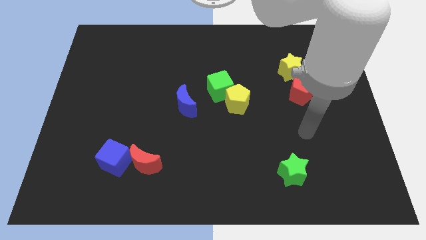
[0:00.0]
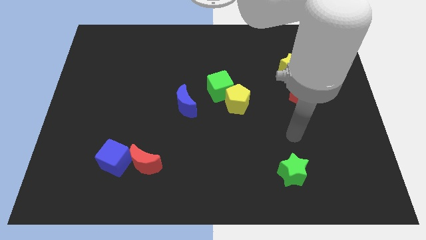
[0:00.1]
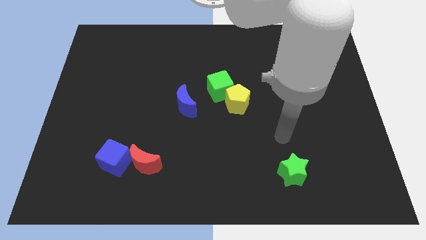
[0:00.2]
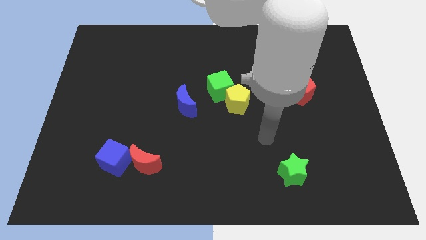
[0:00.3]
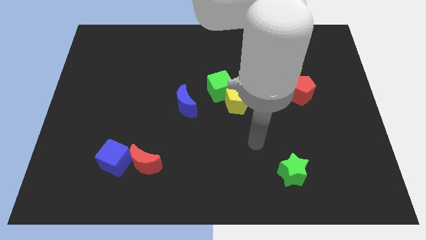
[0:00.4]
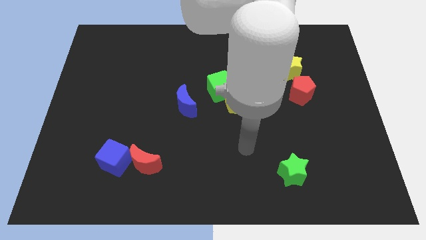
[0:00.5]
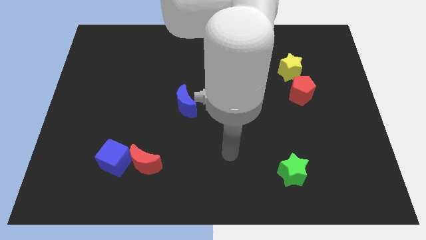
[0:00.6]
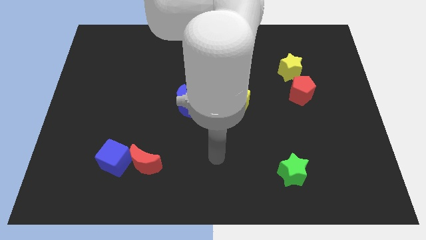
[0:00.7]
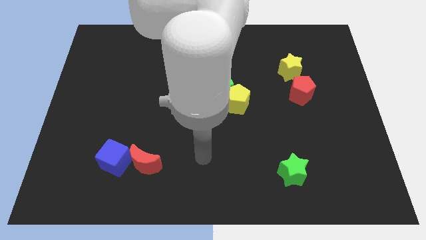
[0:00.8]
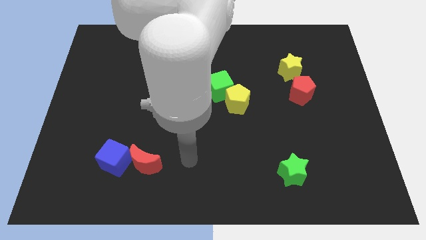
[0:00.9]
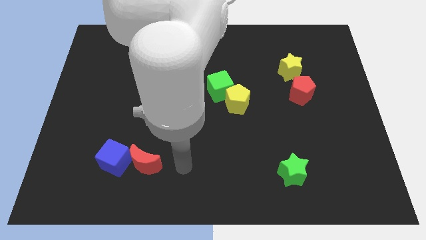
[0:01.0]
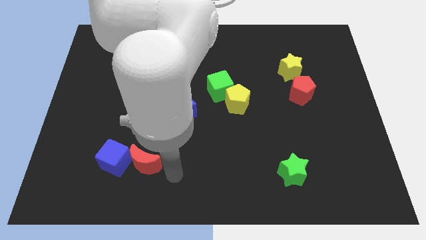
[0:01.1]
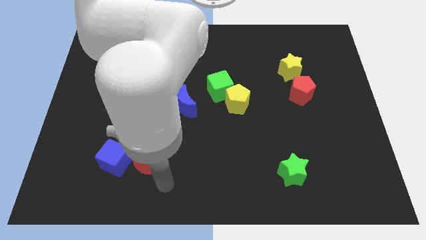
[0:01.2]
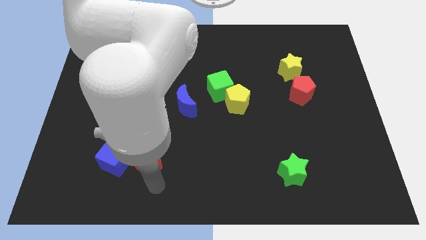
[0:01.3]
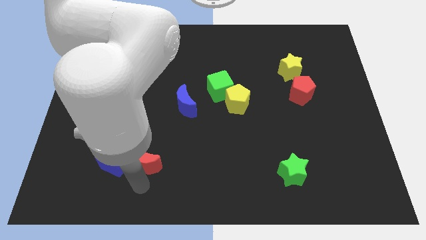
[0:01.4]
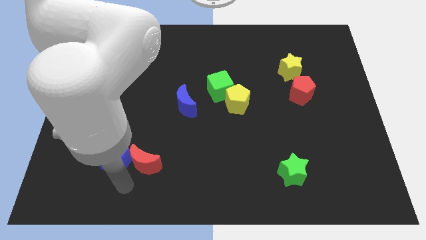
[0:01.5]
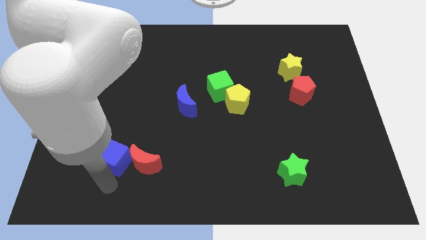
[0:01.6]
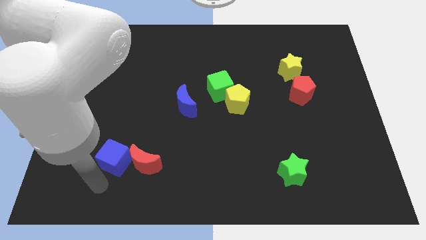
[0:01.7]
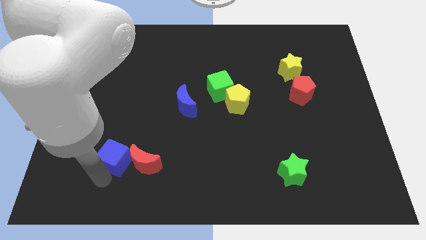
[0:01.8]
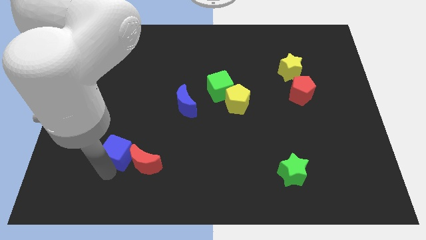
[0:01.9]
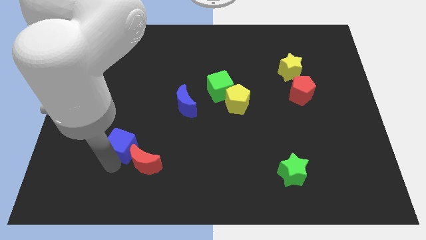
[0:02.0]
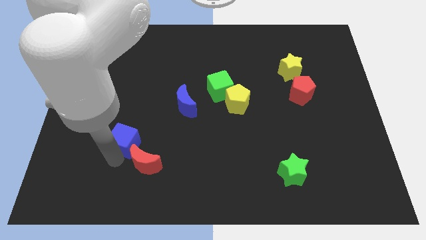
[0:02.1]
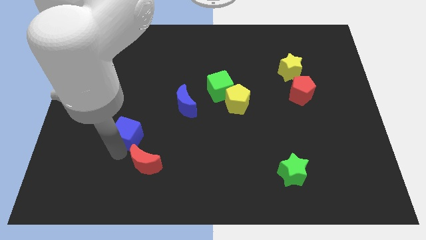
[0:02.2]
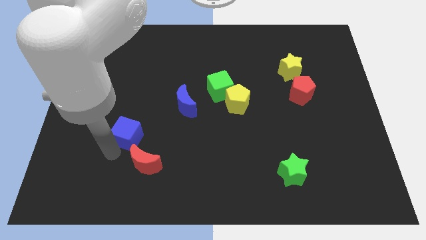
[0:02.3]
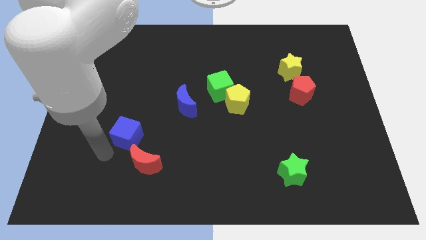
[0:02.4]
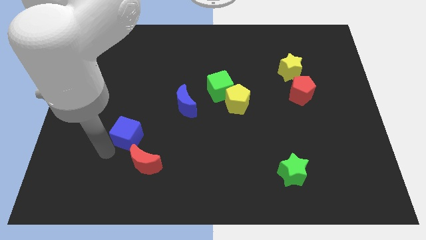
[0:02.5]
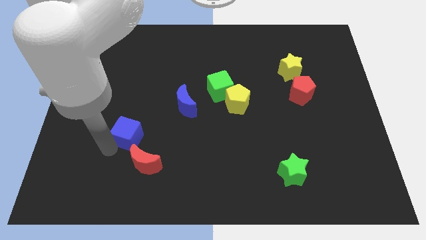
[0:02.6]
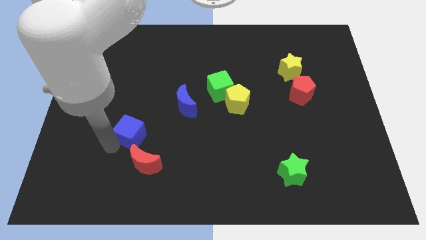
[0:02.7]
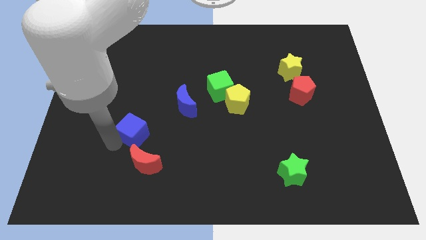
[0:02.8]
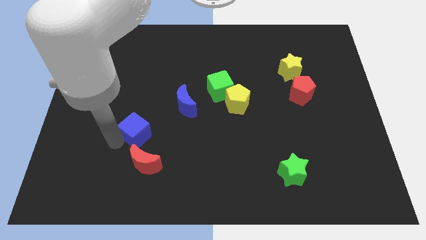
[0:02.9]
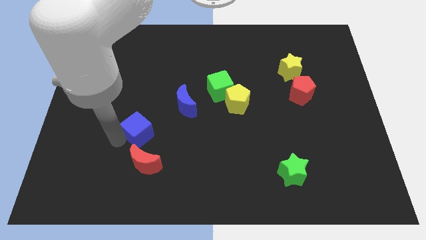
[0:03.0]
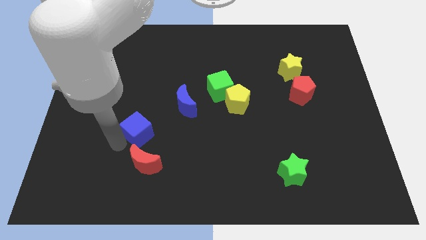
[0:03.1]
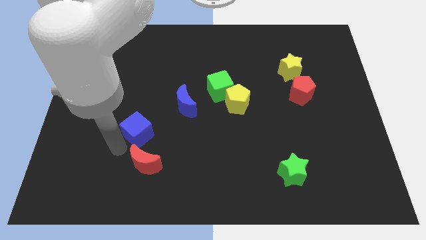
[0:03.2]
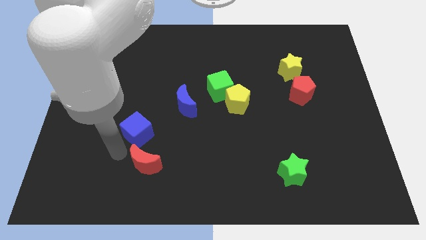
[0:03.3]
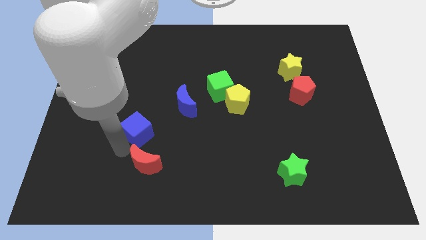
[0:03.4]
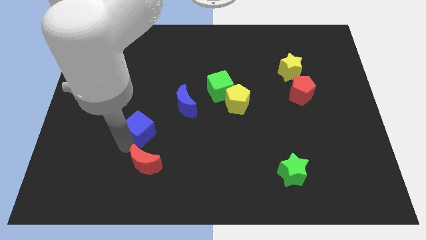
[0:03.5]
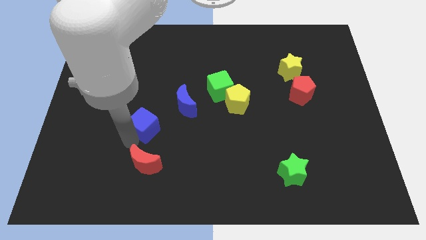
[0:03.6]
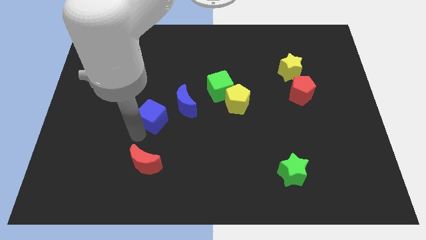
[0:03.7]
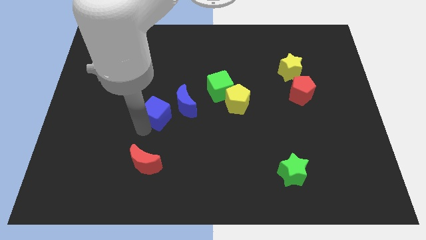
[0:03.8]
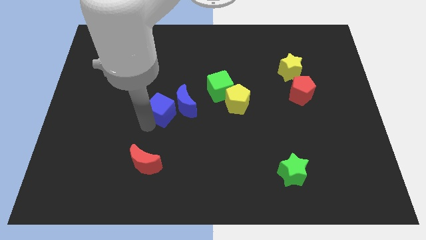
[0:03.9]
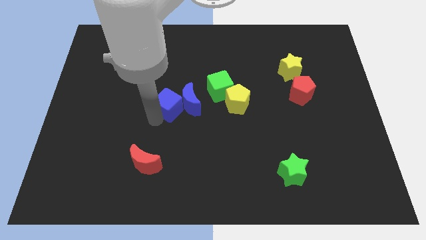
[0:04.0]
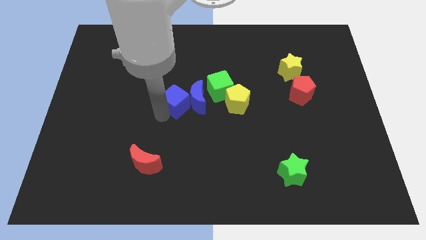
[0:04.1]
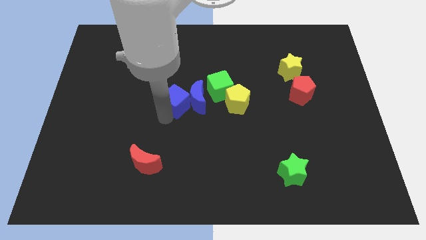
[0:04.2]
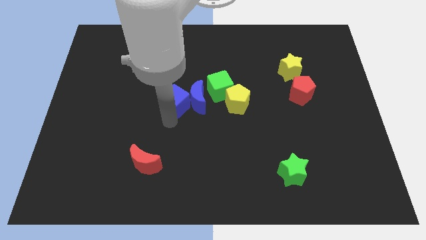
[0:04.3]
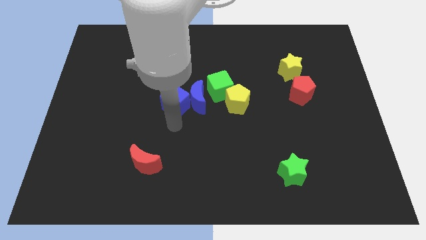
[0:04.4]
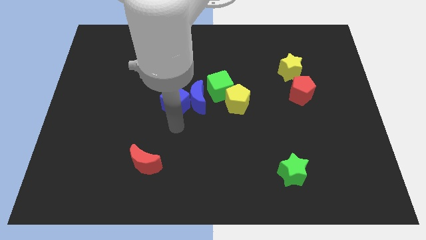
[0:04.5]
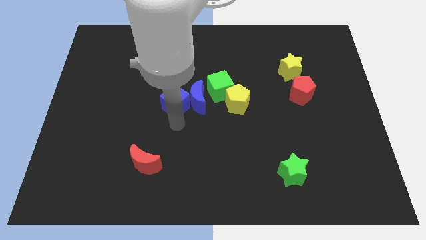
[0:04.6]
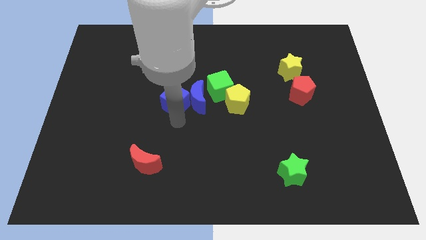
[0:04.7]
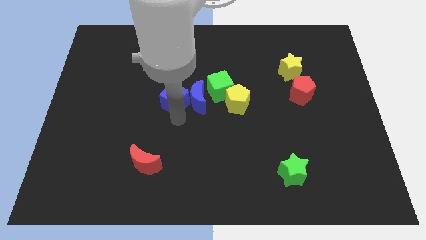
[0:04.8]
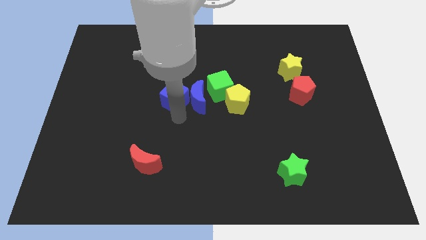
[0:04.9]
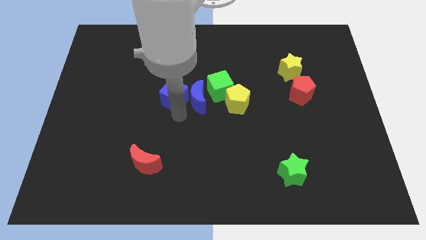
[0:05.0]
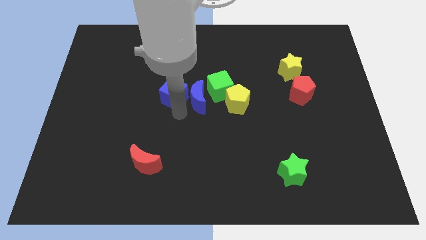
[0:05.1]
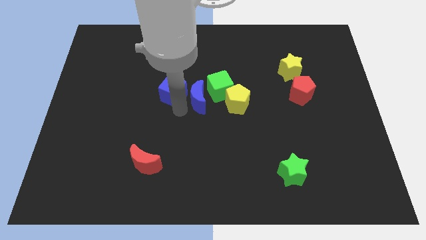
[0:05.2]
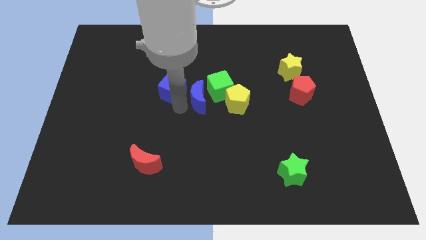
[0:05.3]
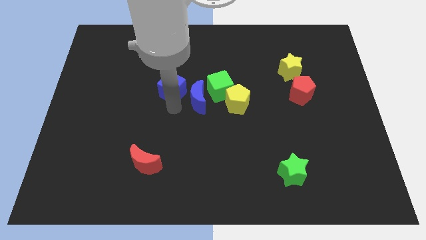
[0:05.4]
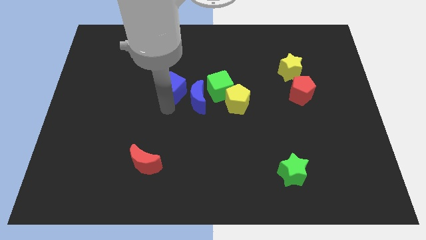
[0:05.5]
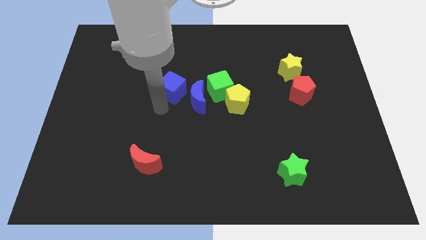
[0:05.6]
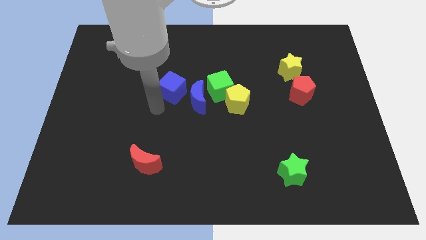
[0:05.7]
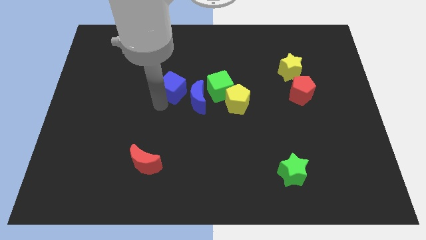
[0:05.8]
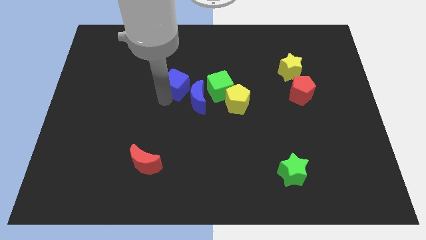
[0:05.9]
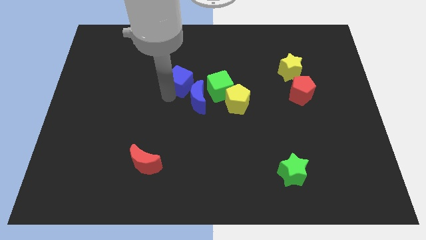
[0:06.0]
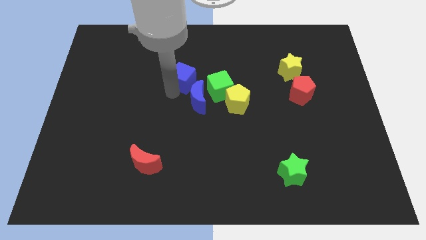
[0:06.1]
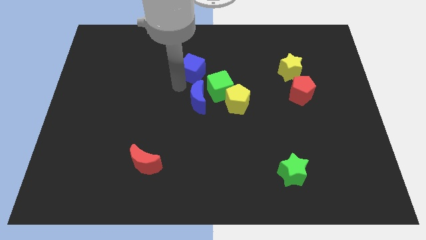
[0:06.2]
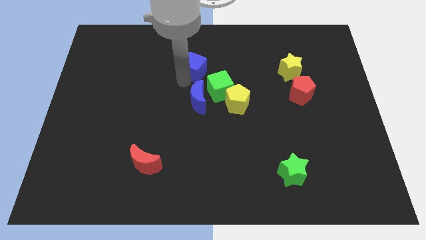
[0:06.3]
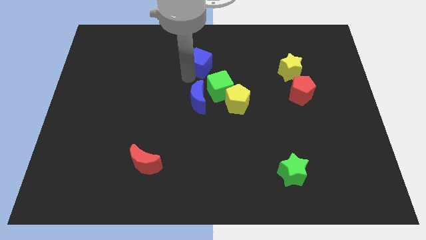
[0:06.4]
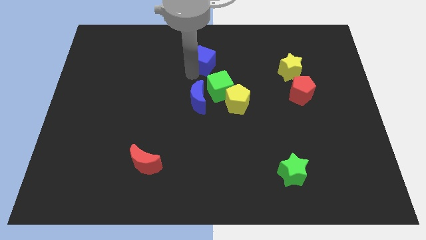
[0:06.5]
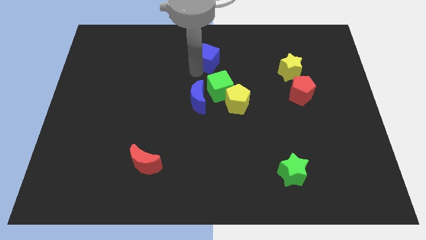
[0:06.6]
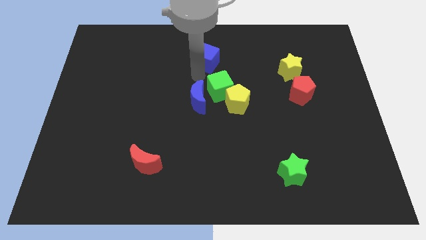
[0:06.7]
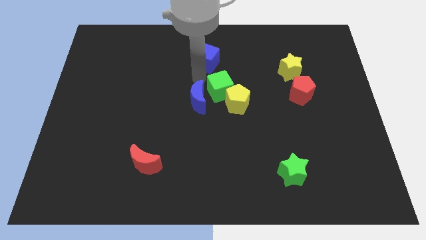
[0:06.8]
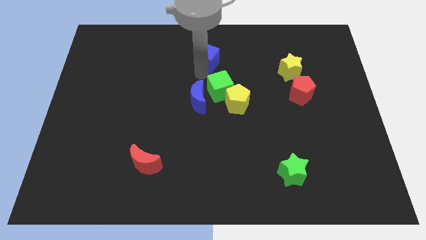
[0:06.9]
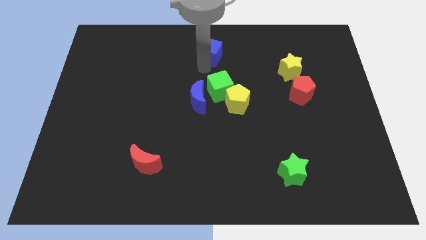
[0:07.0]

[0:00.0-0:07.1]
push the blue cube to the top side

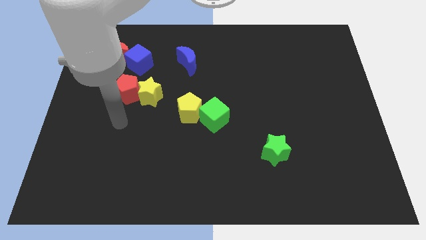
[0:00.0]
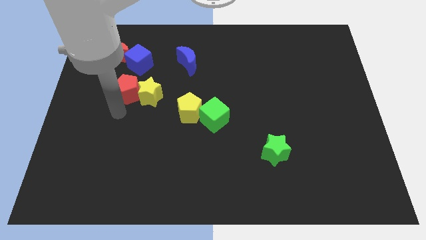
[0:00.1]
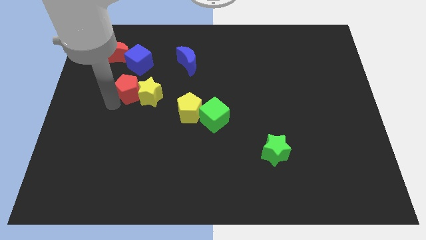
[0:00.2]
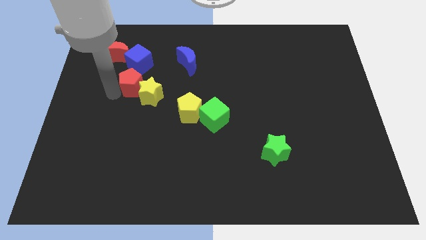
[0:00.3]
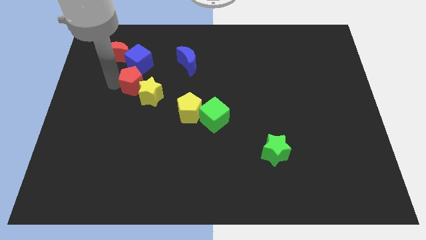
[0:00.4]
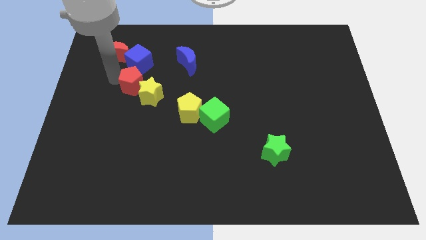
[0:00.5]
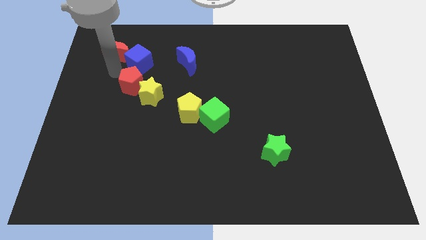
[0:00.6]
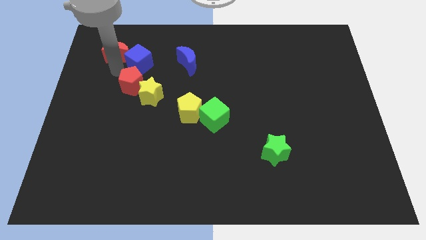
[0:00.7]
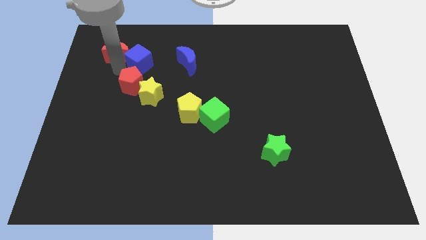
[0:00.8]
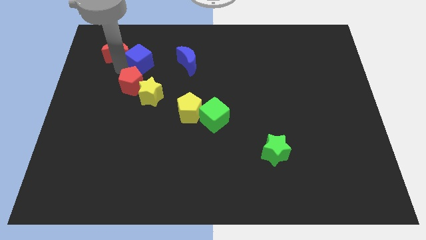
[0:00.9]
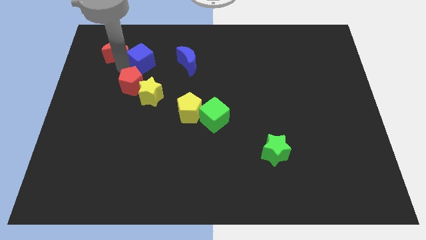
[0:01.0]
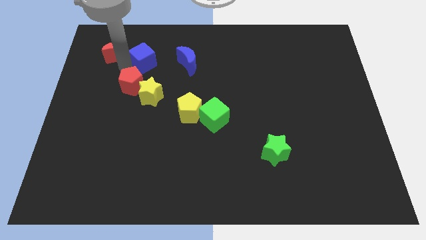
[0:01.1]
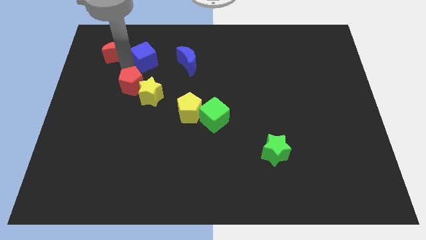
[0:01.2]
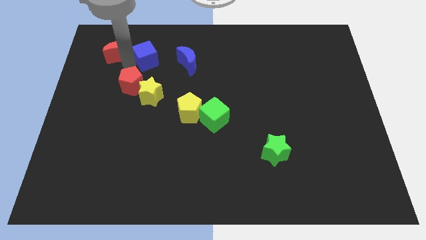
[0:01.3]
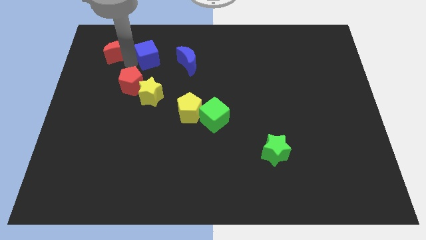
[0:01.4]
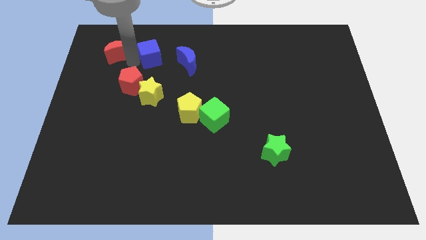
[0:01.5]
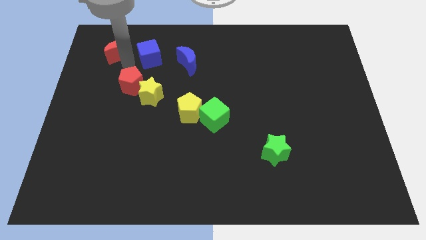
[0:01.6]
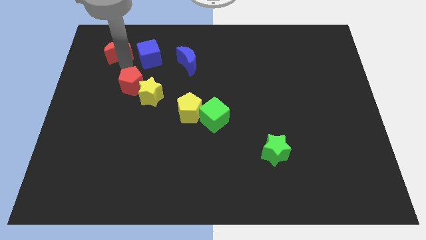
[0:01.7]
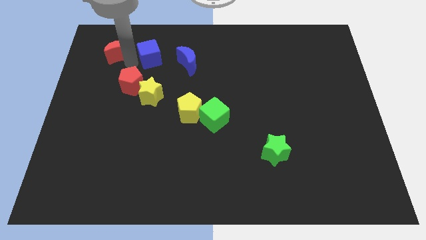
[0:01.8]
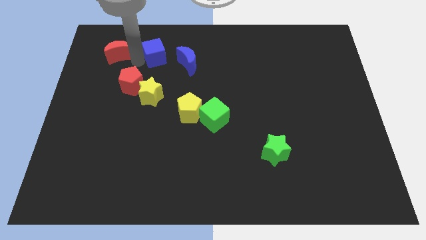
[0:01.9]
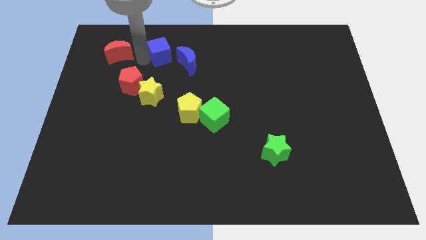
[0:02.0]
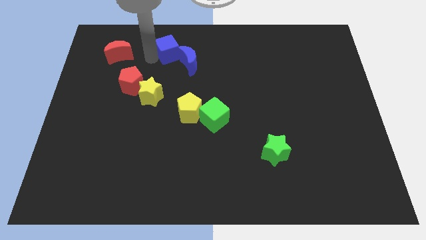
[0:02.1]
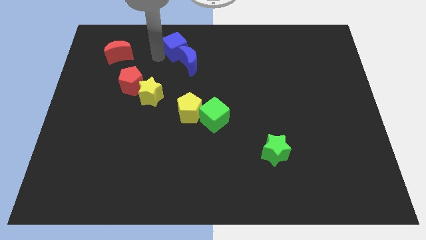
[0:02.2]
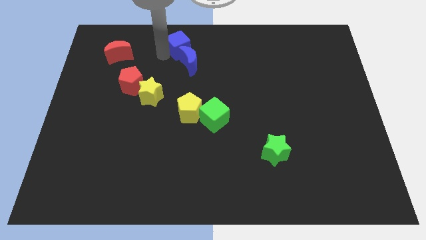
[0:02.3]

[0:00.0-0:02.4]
move the blue cube to the top
